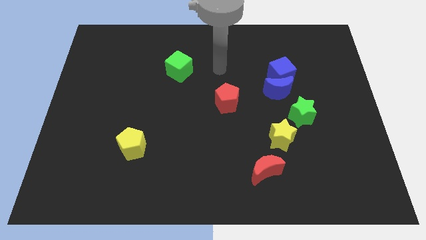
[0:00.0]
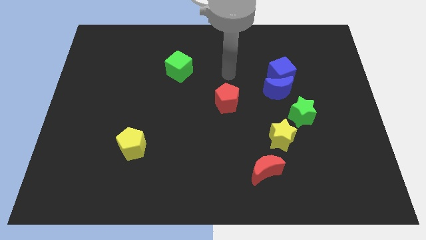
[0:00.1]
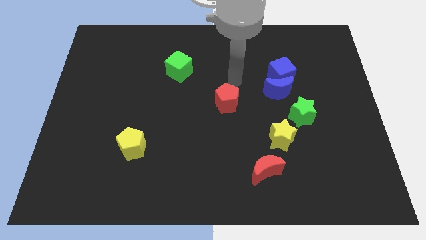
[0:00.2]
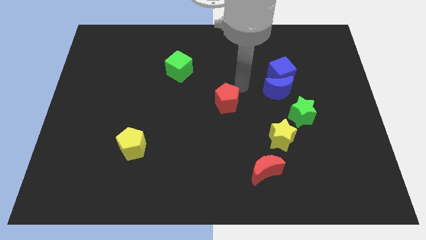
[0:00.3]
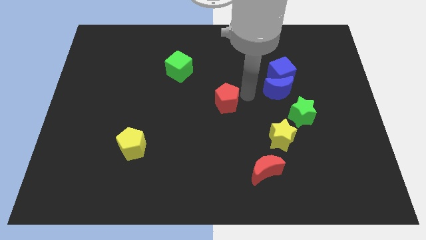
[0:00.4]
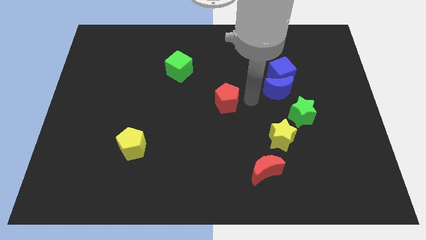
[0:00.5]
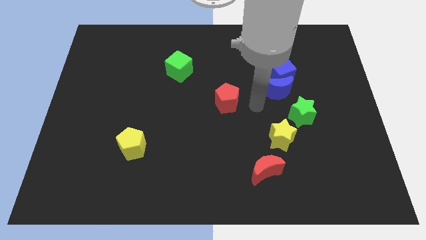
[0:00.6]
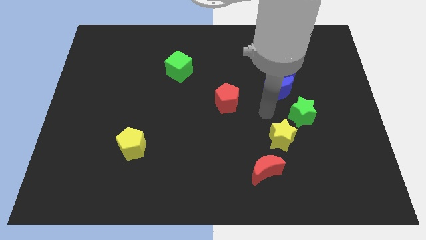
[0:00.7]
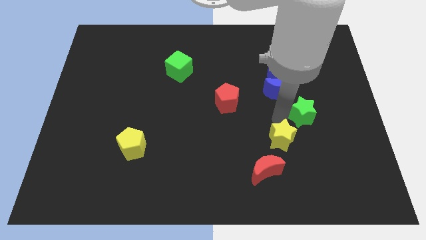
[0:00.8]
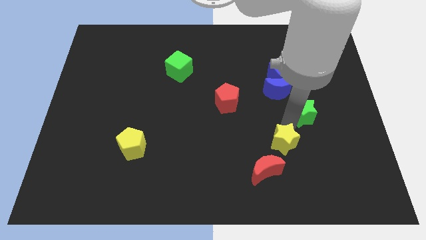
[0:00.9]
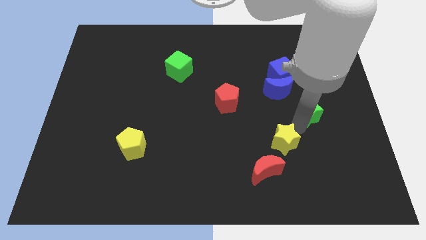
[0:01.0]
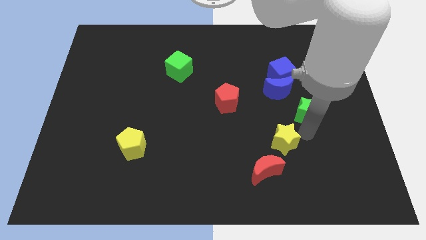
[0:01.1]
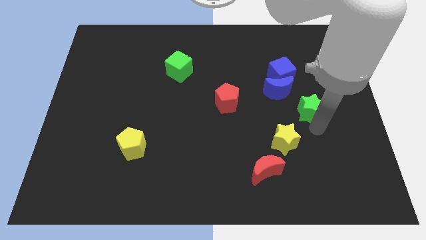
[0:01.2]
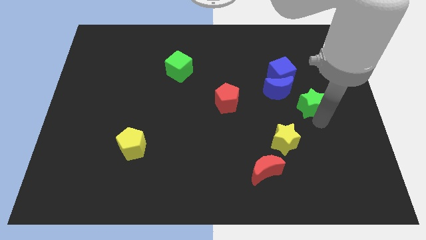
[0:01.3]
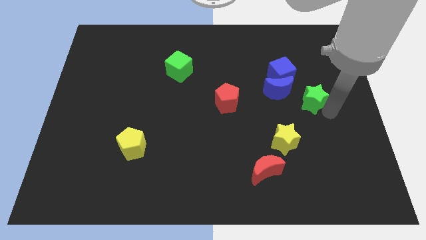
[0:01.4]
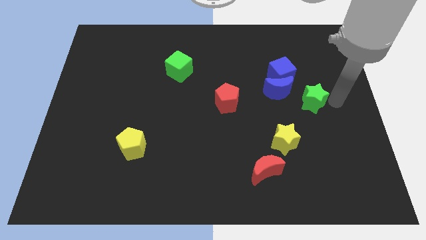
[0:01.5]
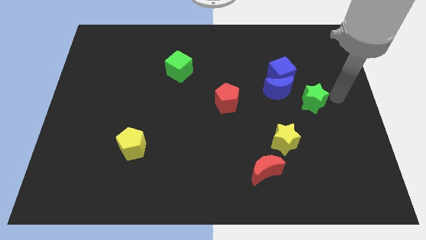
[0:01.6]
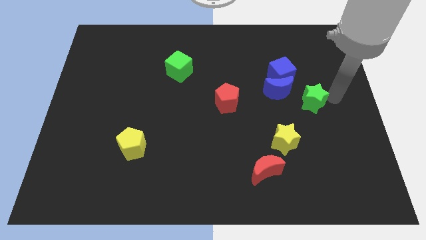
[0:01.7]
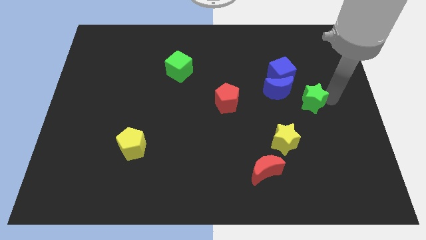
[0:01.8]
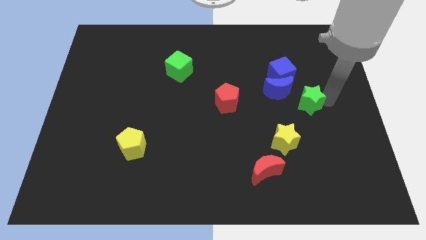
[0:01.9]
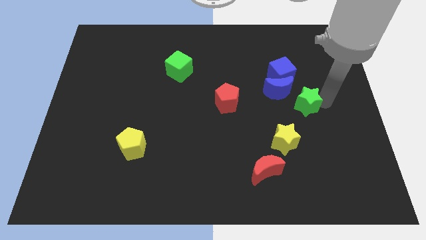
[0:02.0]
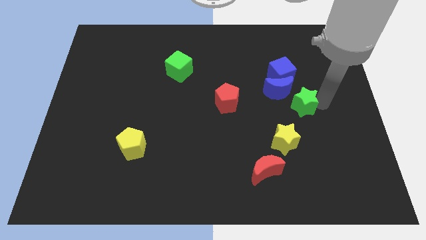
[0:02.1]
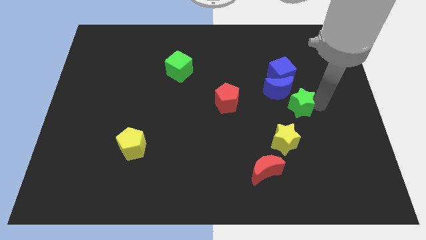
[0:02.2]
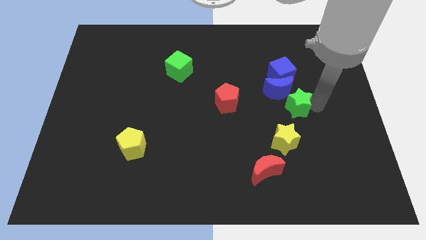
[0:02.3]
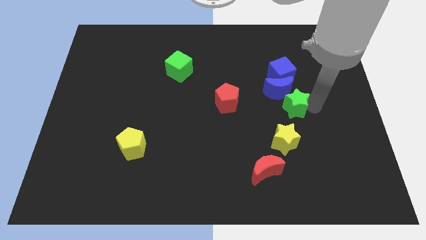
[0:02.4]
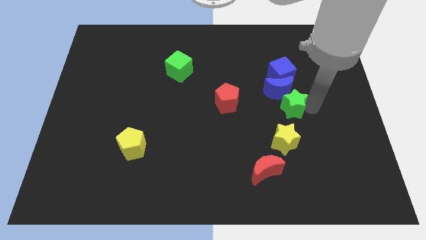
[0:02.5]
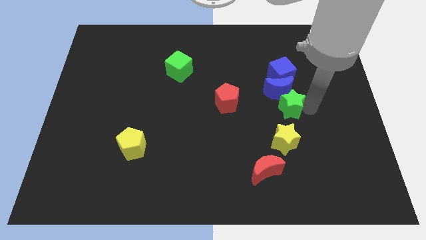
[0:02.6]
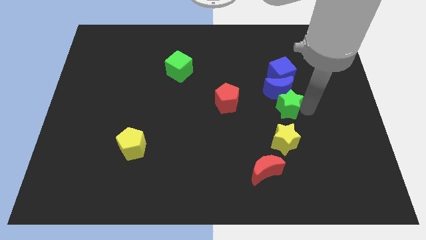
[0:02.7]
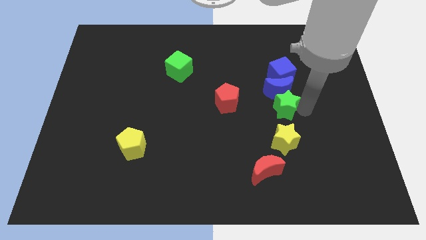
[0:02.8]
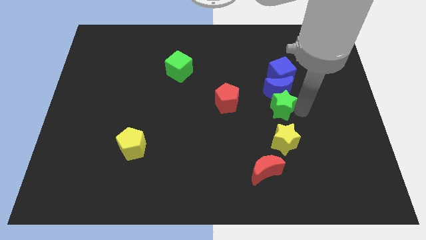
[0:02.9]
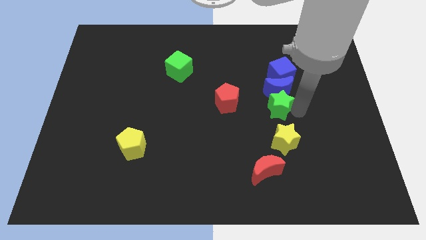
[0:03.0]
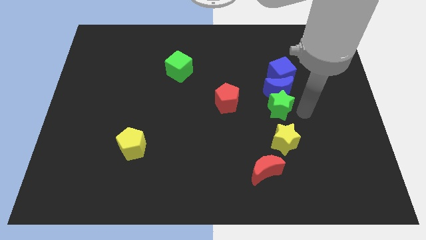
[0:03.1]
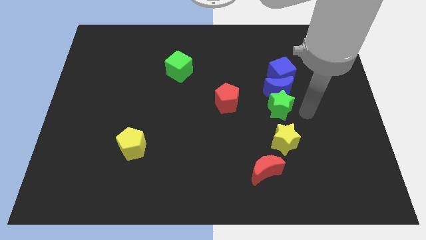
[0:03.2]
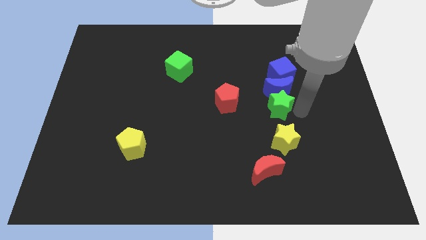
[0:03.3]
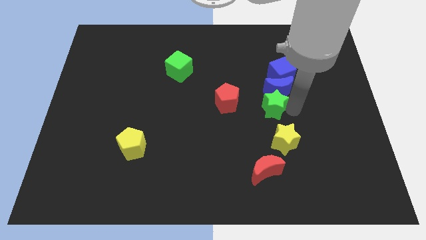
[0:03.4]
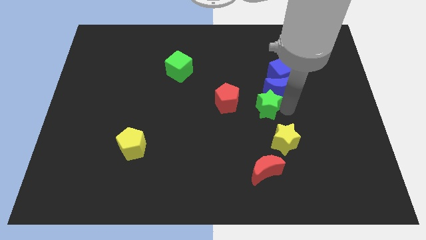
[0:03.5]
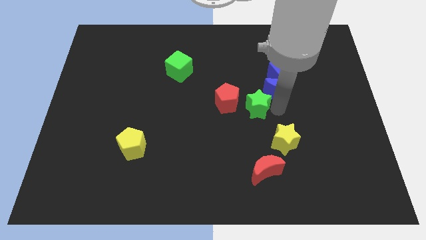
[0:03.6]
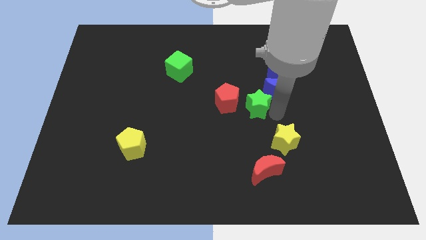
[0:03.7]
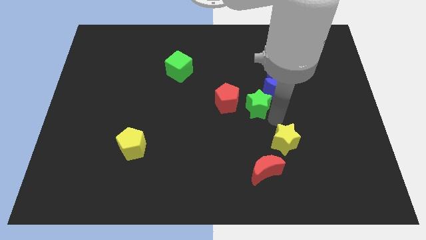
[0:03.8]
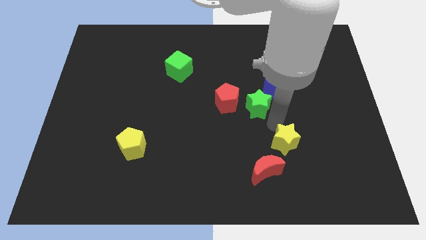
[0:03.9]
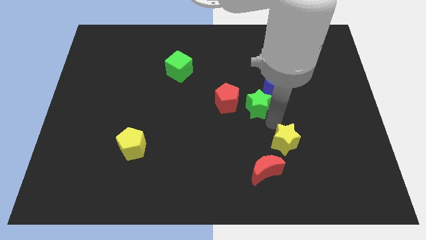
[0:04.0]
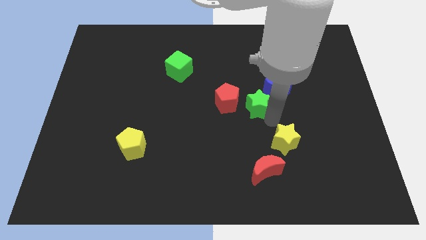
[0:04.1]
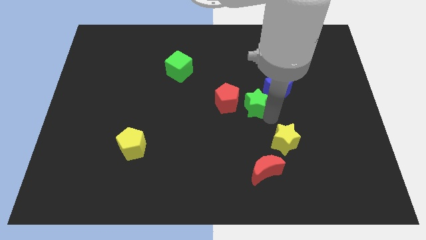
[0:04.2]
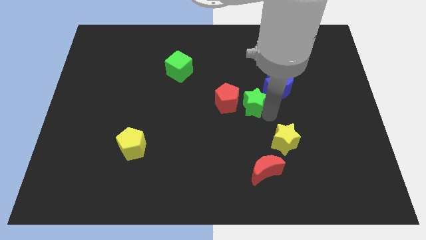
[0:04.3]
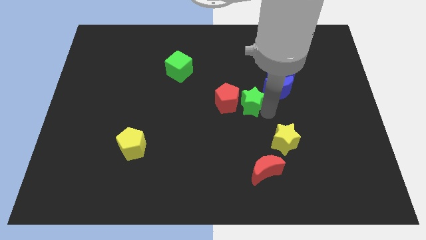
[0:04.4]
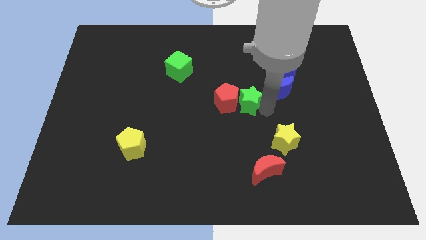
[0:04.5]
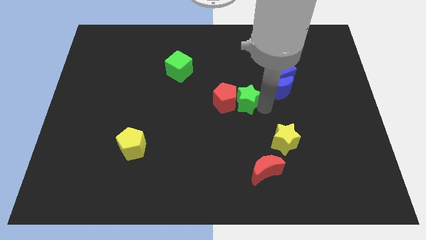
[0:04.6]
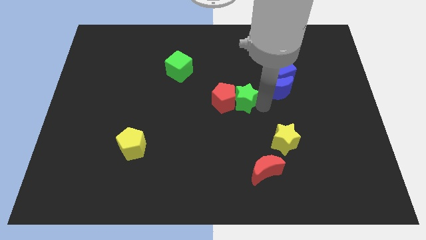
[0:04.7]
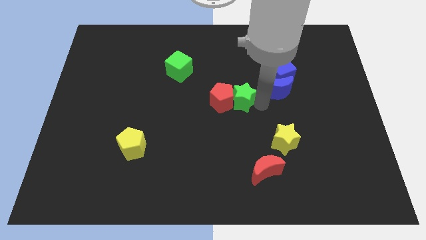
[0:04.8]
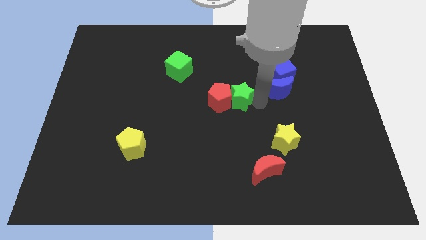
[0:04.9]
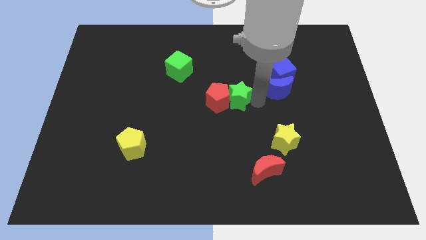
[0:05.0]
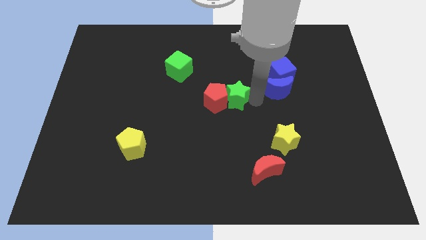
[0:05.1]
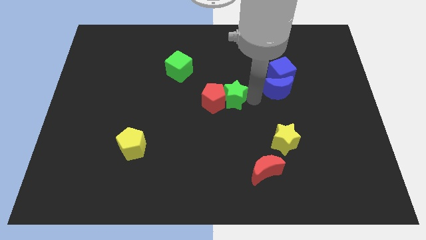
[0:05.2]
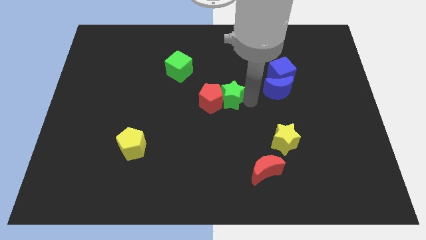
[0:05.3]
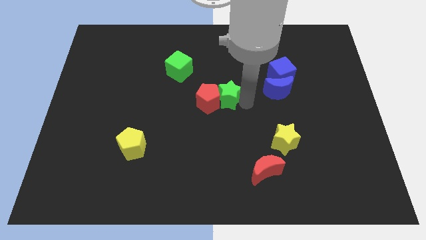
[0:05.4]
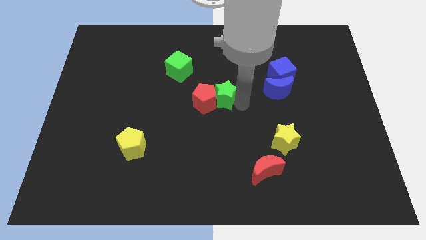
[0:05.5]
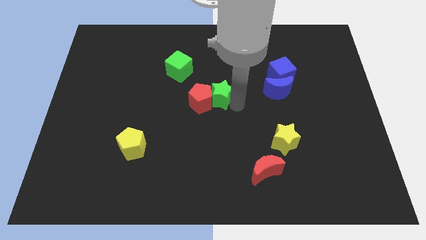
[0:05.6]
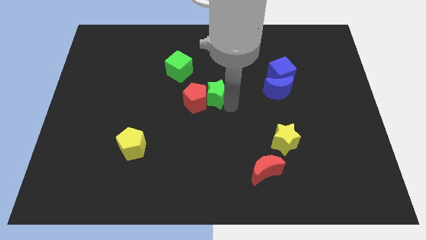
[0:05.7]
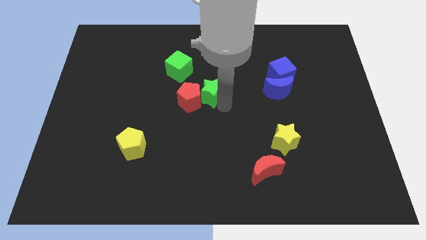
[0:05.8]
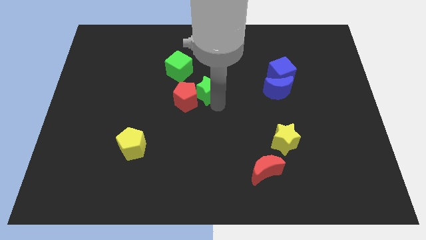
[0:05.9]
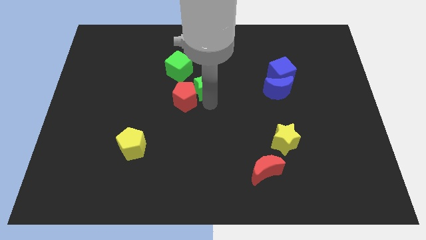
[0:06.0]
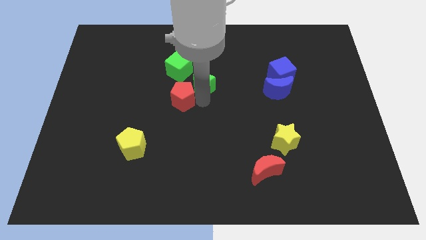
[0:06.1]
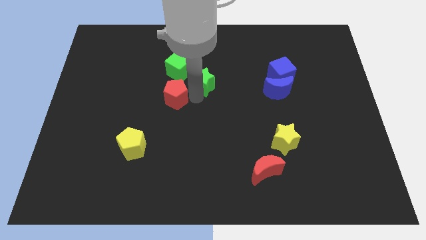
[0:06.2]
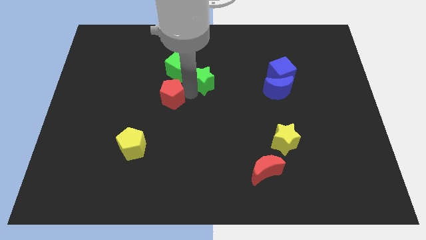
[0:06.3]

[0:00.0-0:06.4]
move the green star to the right of the green cube

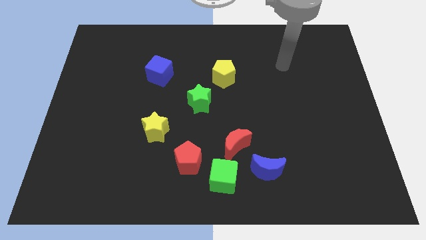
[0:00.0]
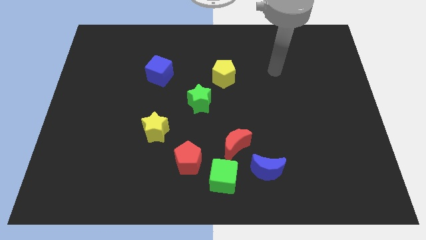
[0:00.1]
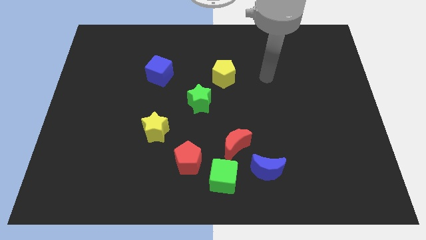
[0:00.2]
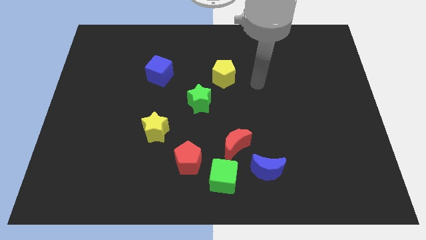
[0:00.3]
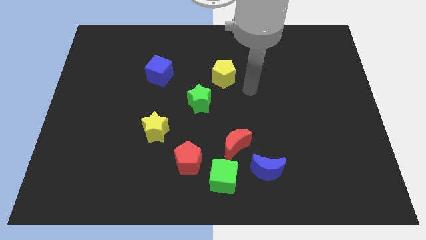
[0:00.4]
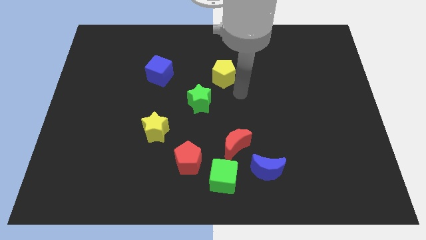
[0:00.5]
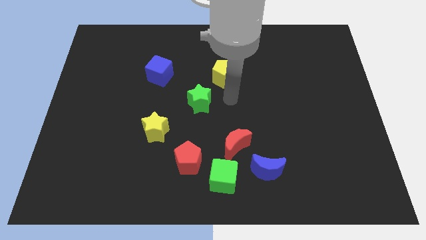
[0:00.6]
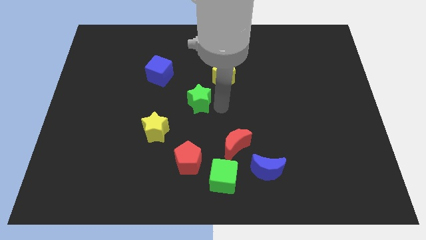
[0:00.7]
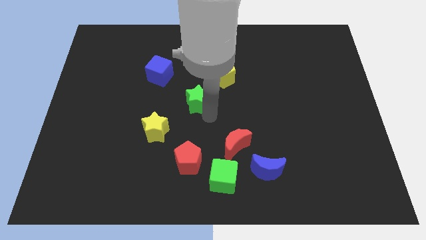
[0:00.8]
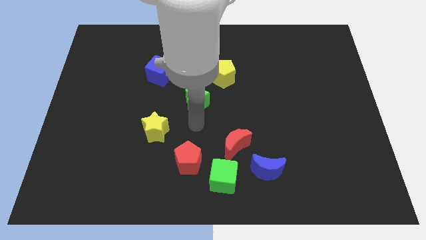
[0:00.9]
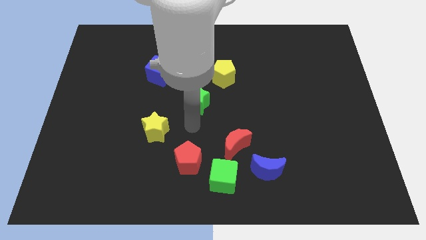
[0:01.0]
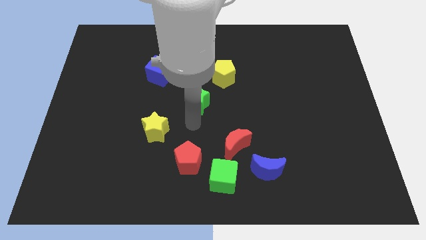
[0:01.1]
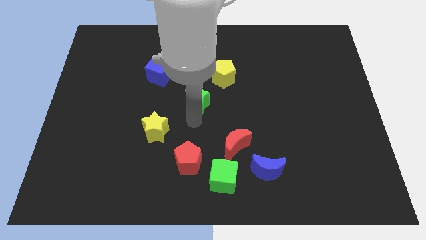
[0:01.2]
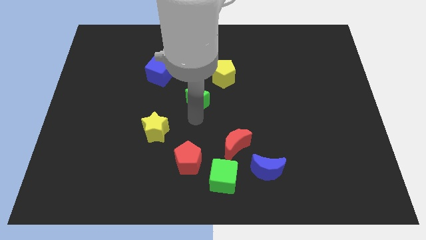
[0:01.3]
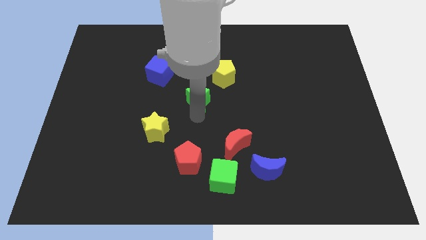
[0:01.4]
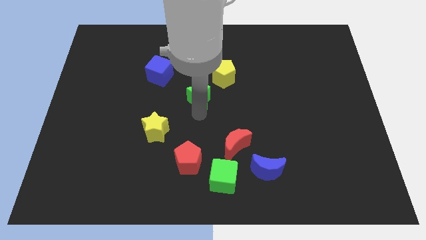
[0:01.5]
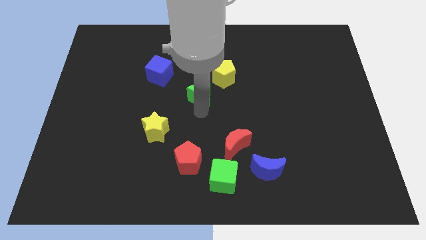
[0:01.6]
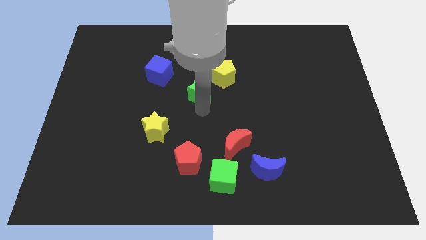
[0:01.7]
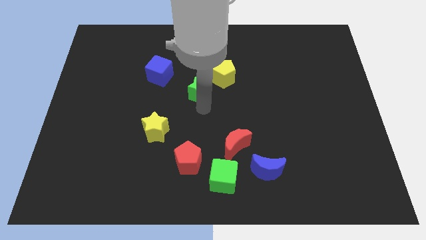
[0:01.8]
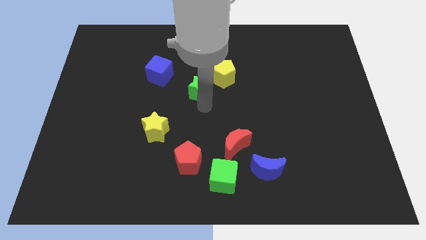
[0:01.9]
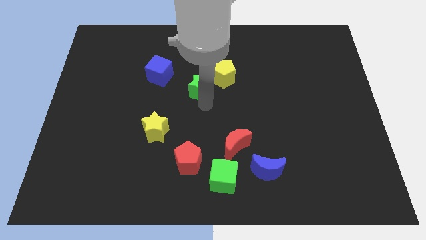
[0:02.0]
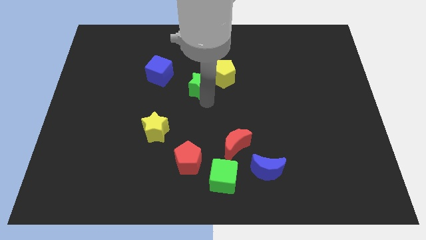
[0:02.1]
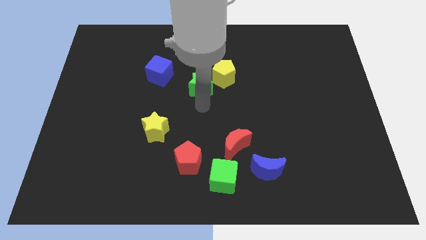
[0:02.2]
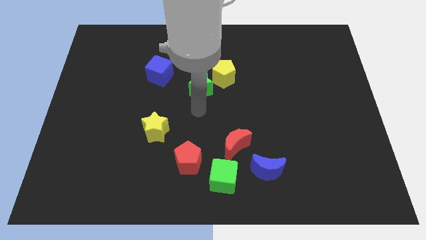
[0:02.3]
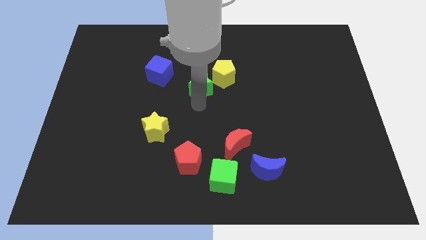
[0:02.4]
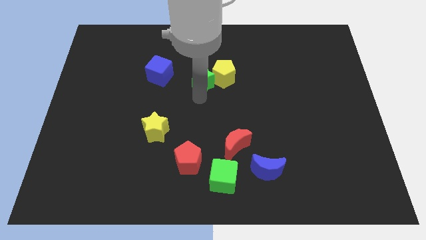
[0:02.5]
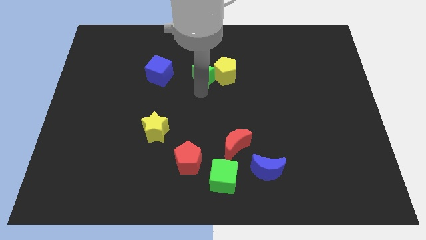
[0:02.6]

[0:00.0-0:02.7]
push the green star to the top left of the yellow pentagon
